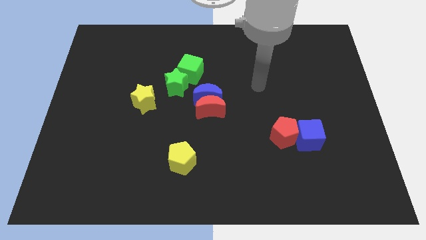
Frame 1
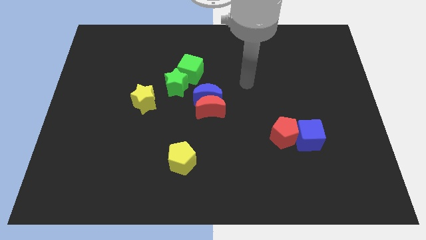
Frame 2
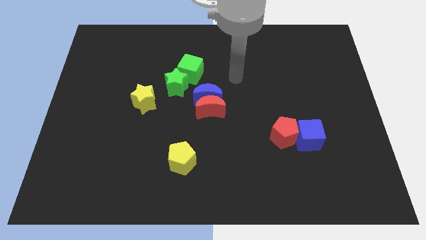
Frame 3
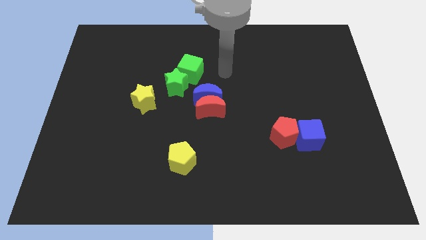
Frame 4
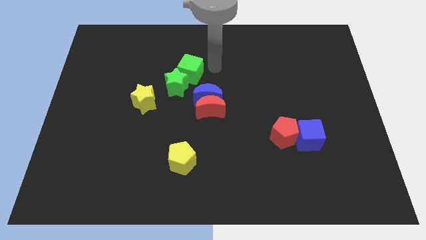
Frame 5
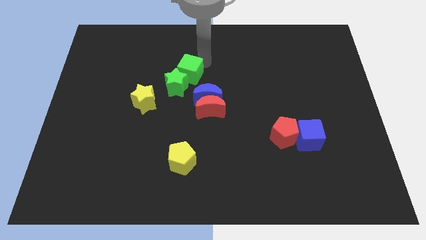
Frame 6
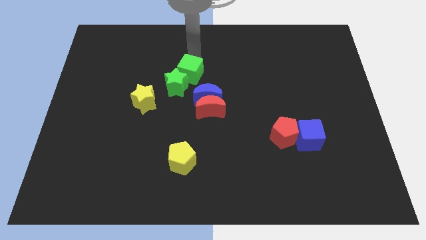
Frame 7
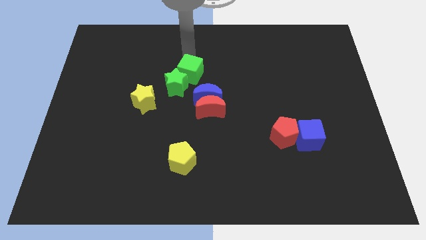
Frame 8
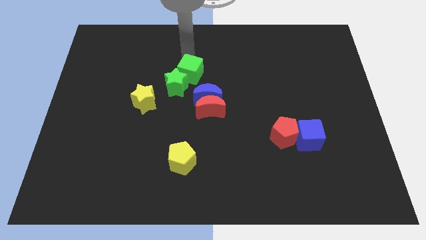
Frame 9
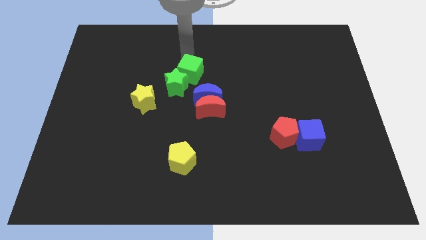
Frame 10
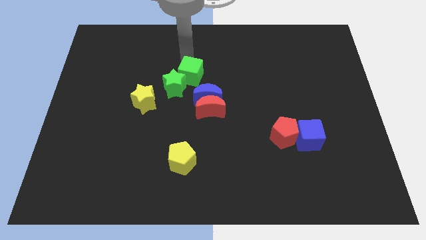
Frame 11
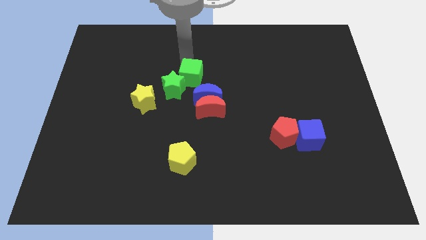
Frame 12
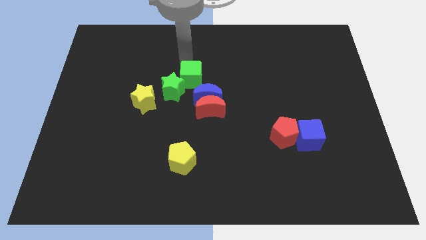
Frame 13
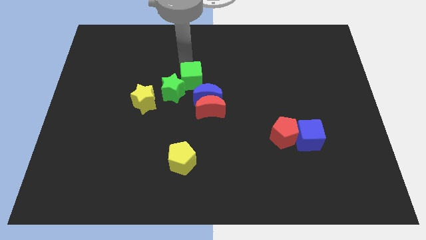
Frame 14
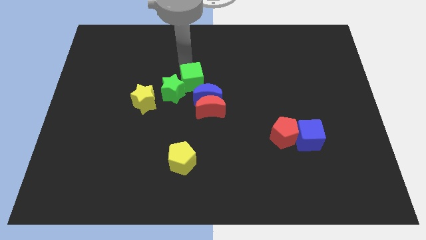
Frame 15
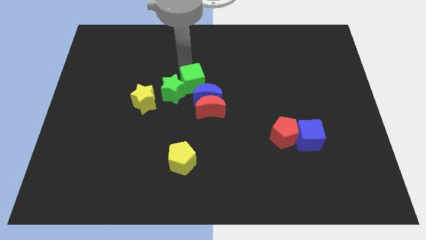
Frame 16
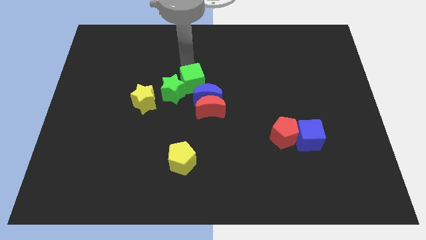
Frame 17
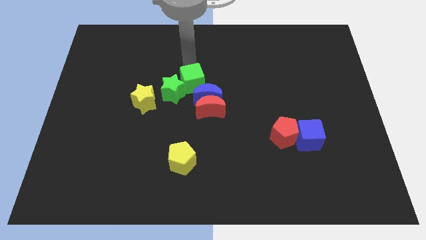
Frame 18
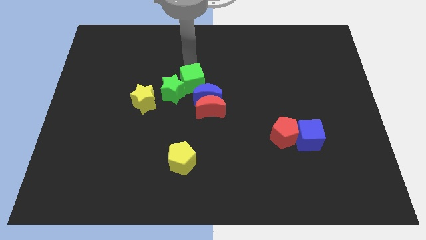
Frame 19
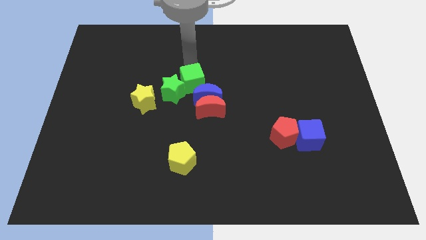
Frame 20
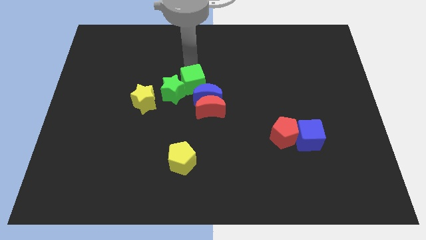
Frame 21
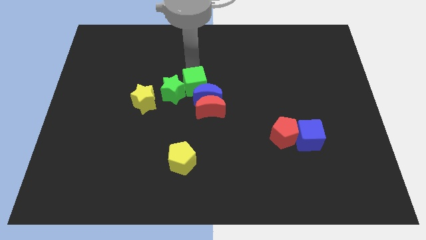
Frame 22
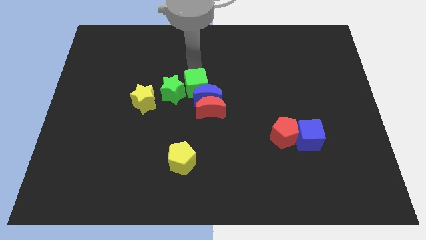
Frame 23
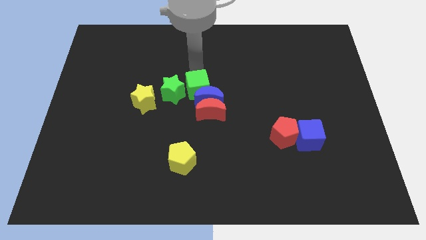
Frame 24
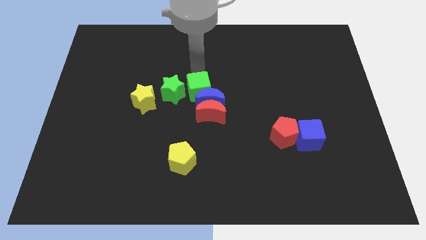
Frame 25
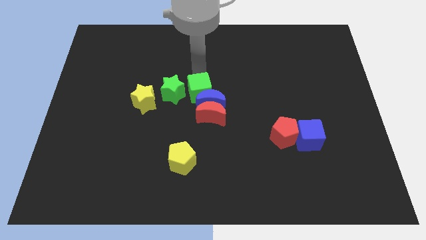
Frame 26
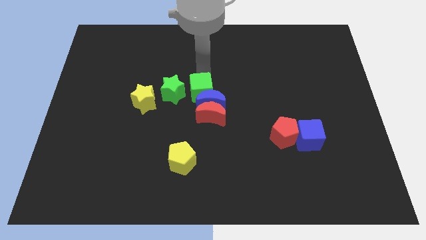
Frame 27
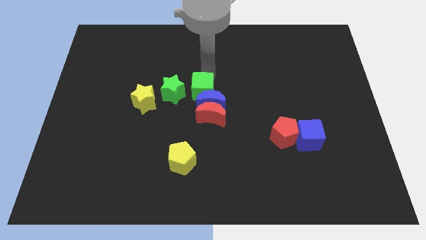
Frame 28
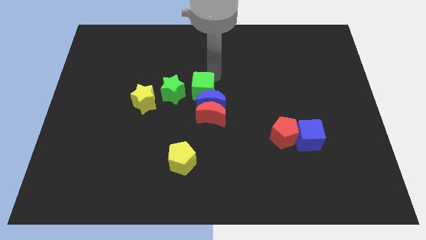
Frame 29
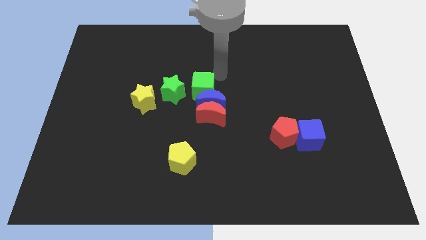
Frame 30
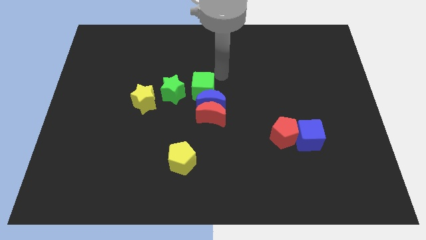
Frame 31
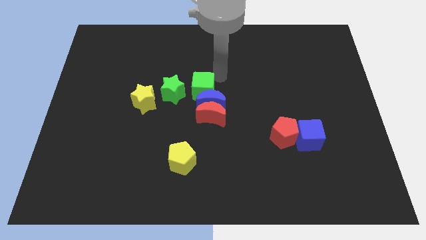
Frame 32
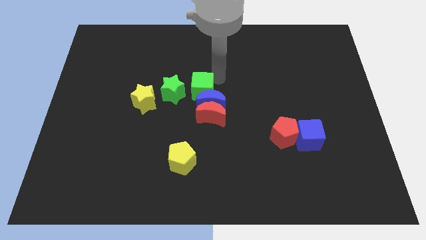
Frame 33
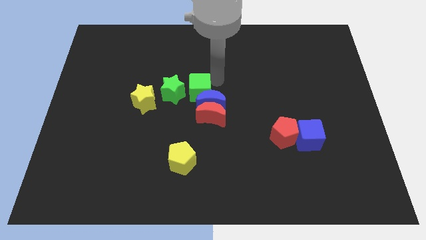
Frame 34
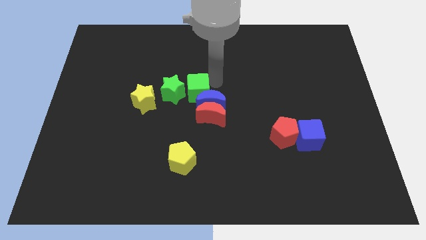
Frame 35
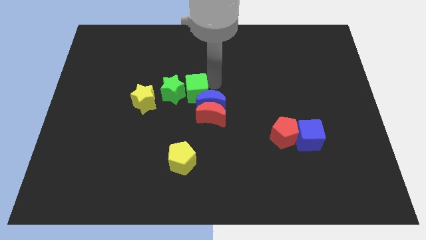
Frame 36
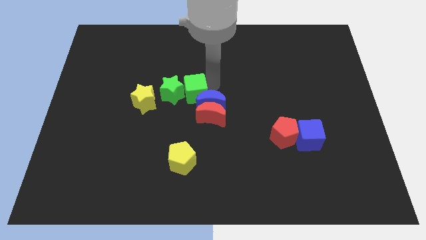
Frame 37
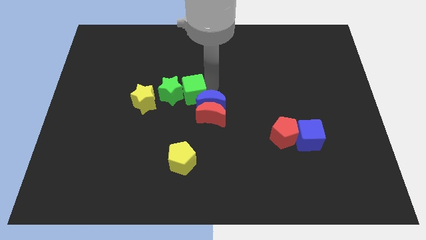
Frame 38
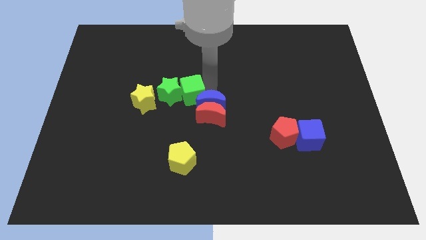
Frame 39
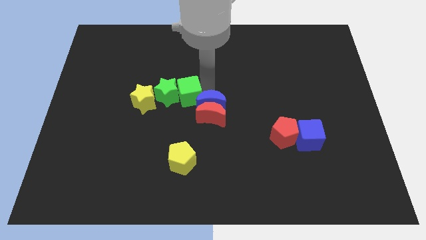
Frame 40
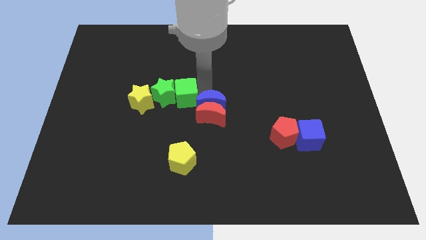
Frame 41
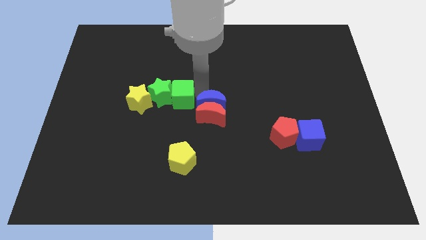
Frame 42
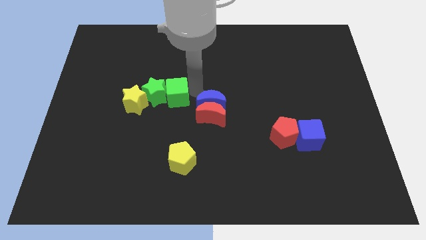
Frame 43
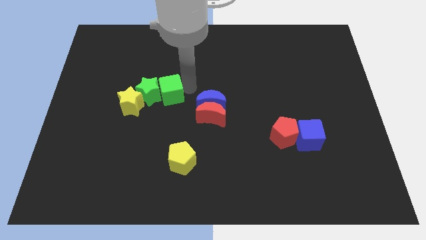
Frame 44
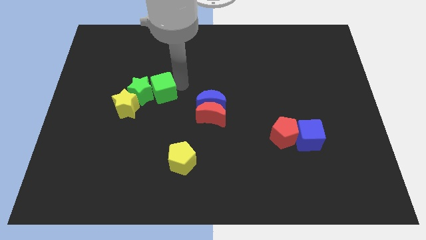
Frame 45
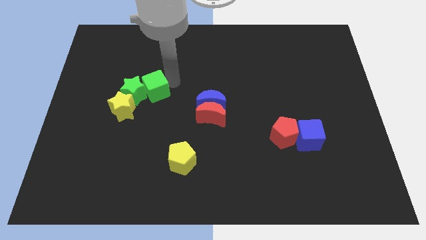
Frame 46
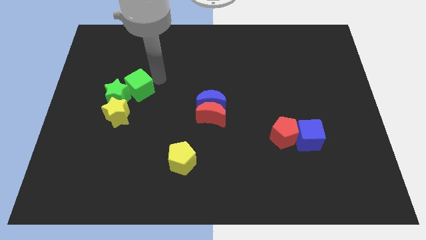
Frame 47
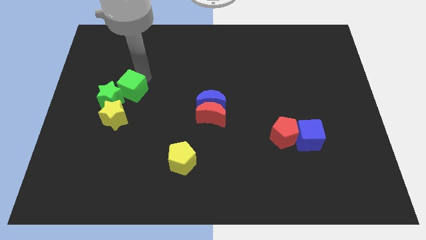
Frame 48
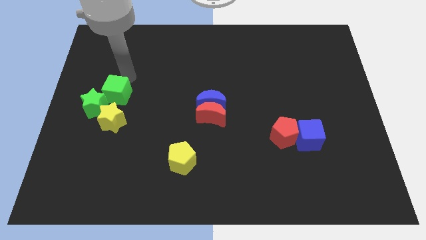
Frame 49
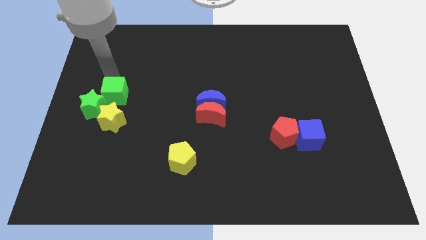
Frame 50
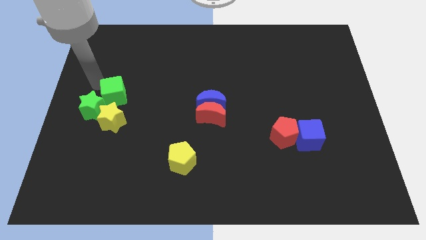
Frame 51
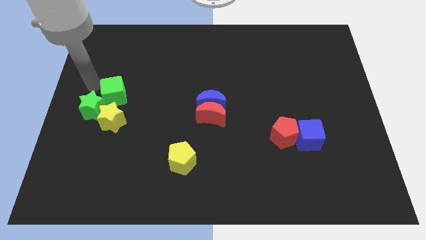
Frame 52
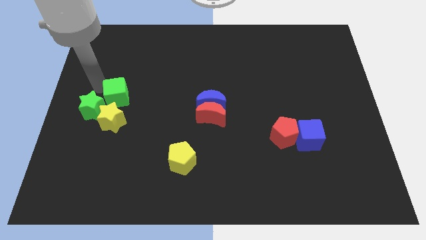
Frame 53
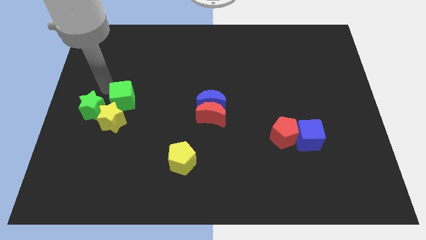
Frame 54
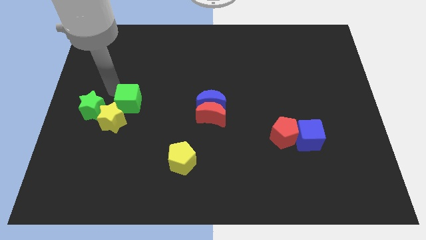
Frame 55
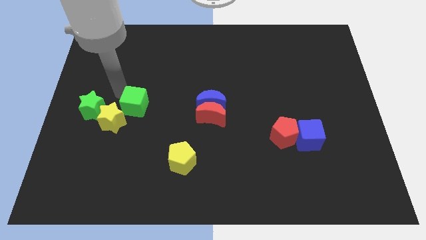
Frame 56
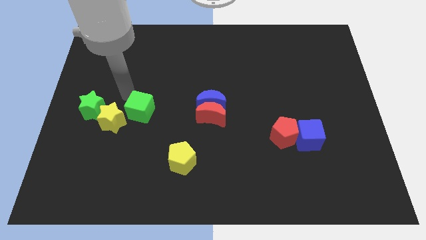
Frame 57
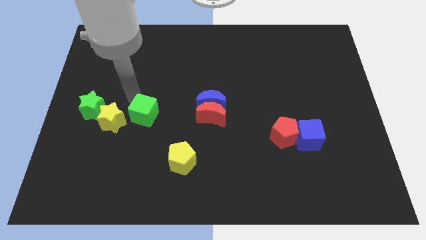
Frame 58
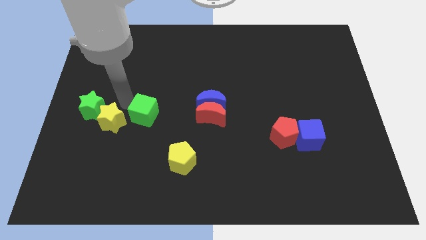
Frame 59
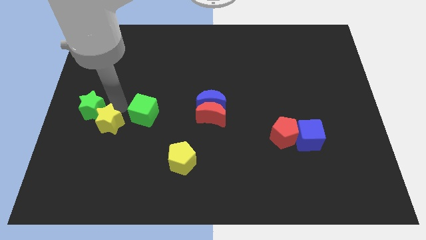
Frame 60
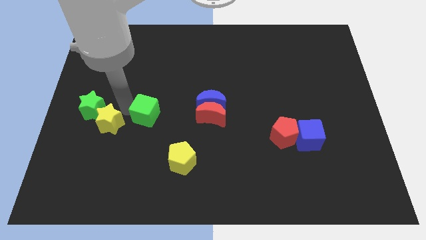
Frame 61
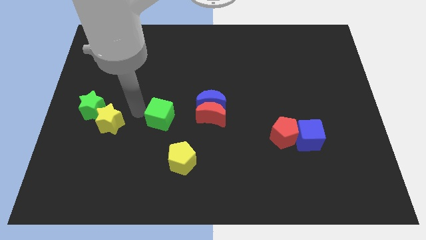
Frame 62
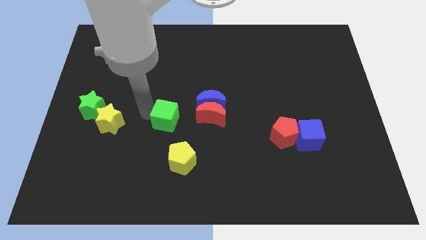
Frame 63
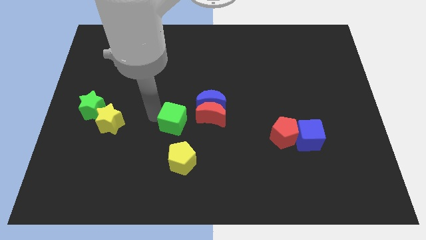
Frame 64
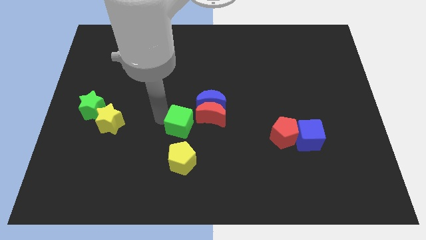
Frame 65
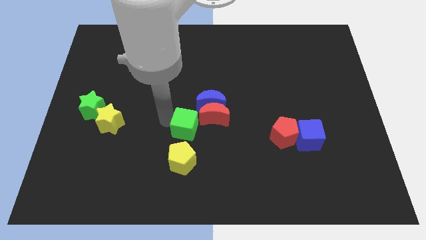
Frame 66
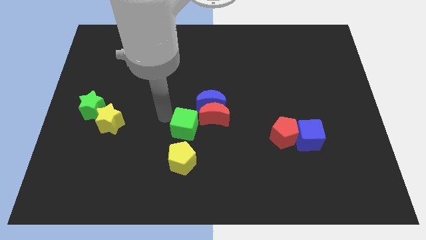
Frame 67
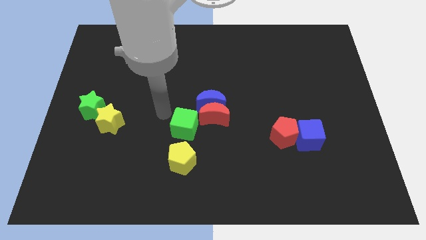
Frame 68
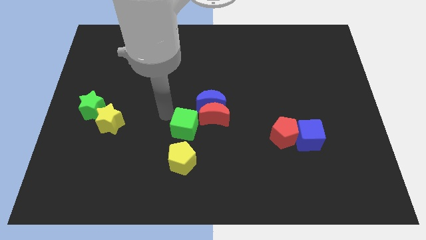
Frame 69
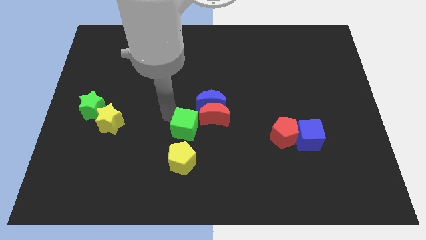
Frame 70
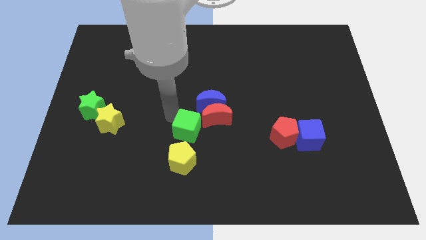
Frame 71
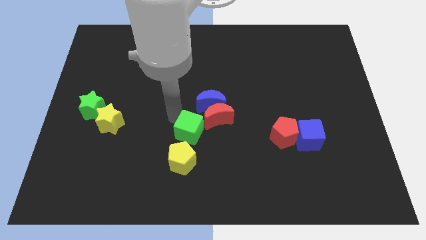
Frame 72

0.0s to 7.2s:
move the green cube to the top right of the yellow pentagon

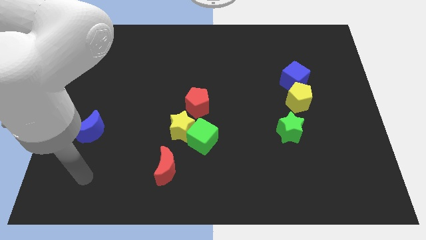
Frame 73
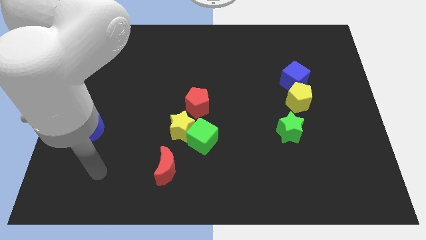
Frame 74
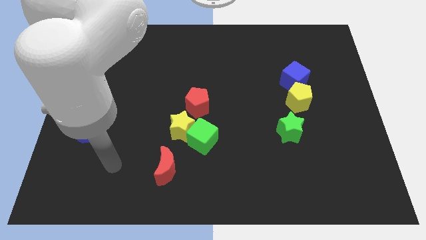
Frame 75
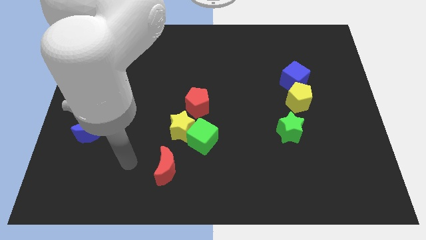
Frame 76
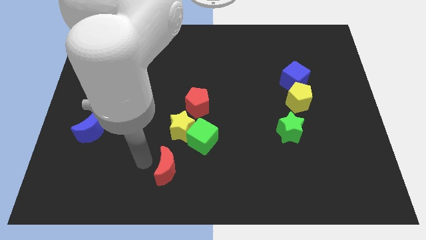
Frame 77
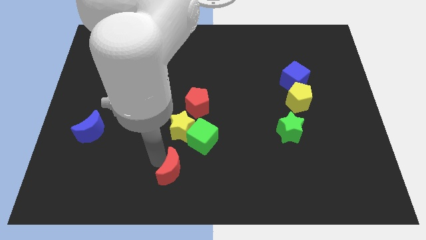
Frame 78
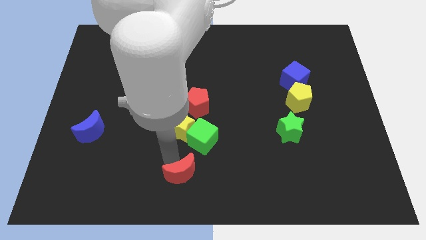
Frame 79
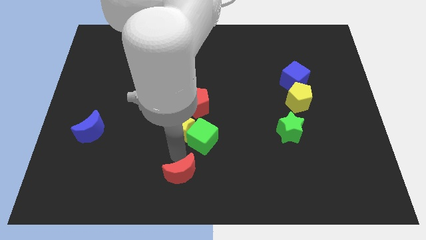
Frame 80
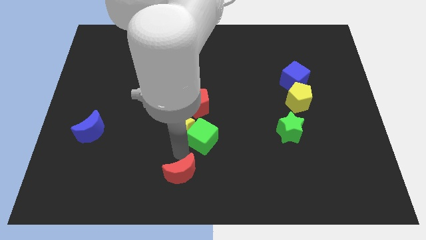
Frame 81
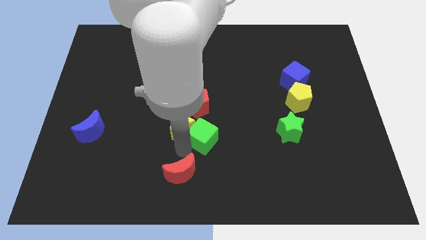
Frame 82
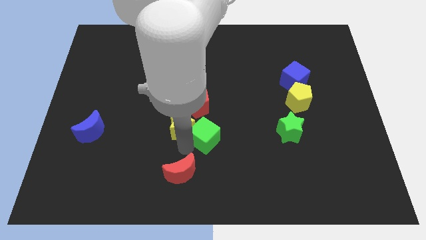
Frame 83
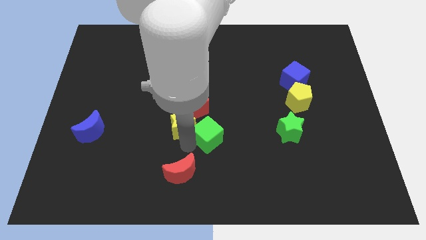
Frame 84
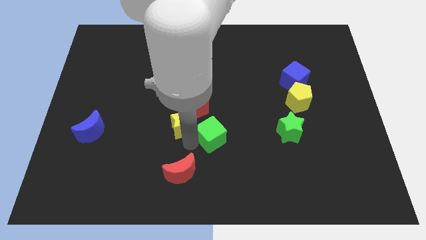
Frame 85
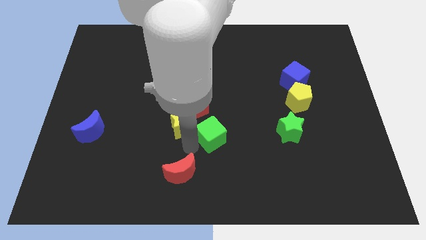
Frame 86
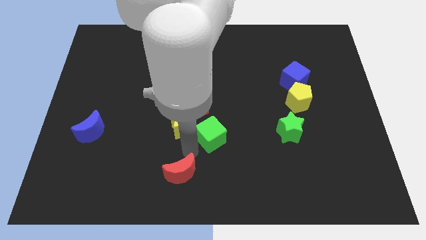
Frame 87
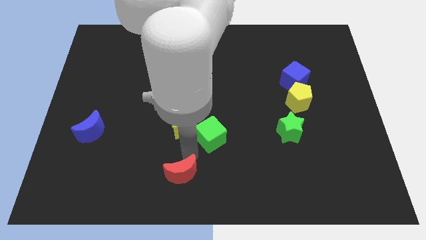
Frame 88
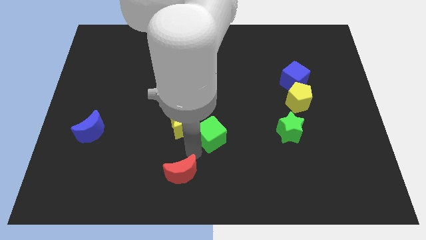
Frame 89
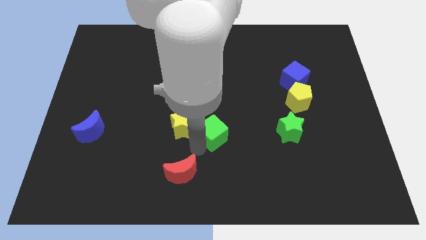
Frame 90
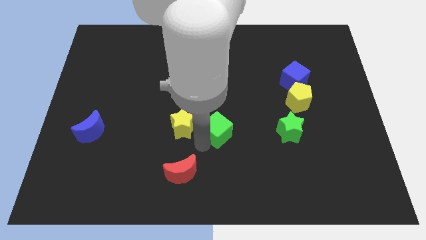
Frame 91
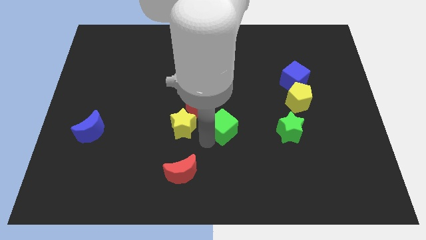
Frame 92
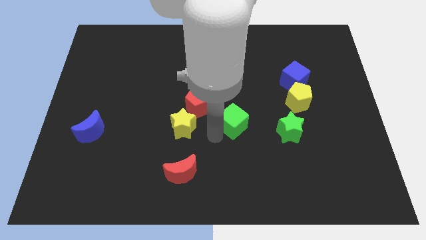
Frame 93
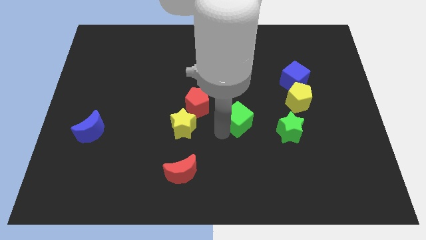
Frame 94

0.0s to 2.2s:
push the green cube just right of the red pentagon
